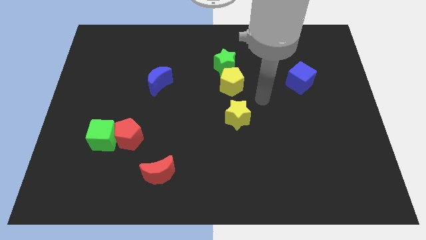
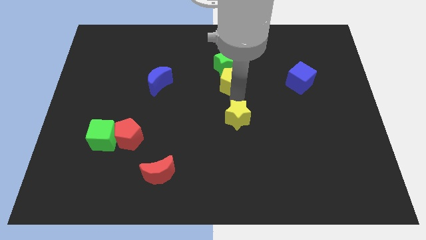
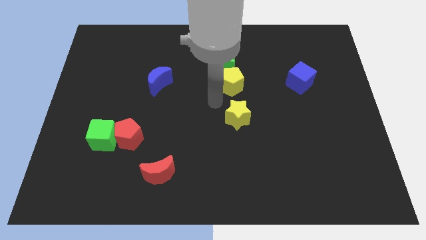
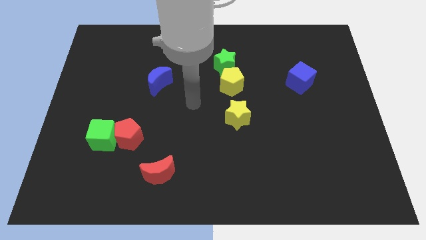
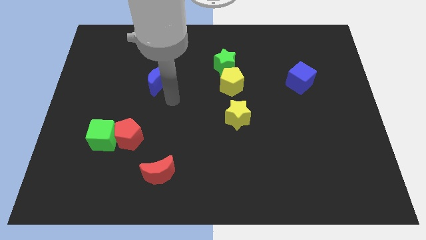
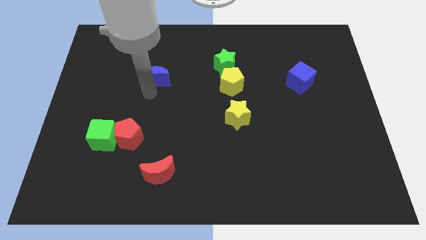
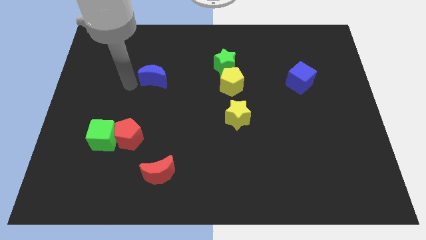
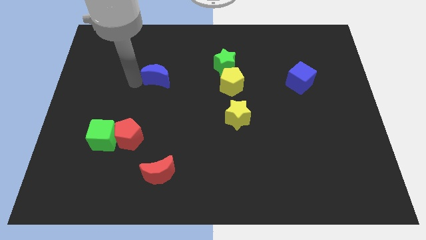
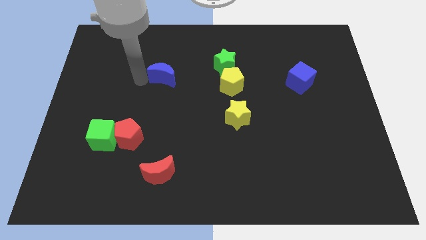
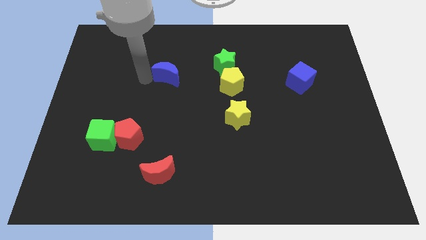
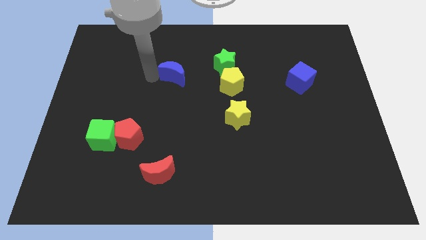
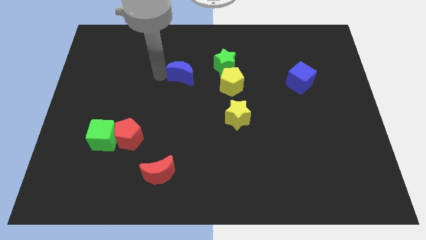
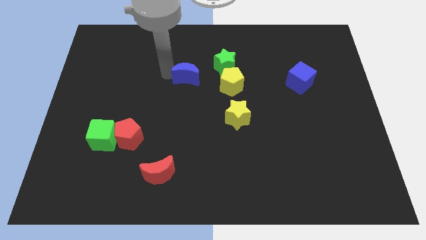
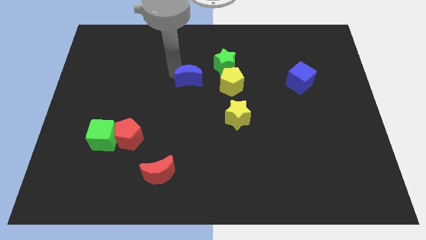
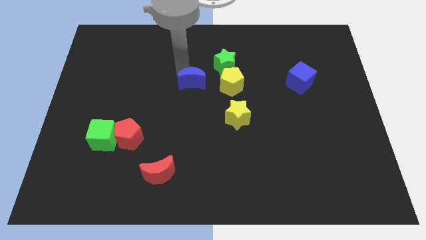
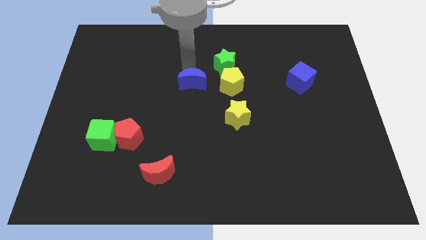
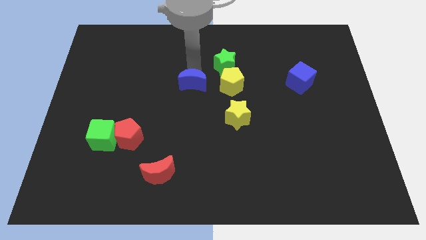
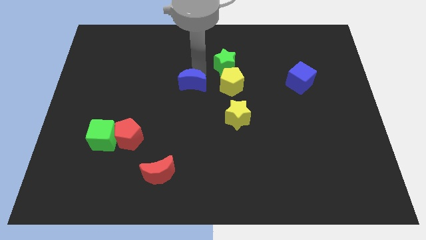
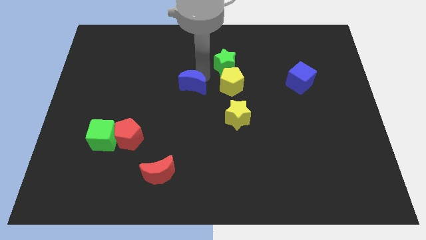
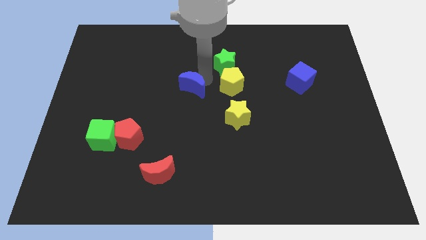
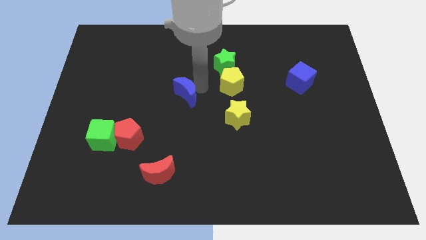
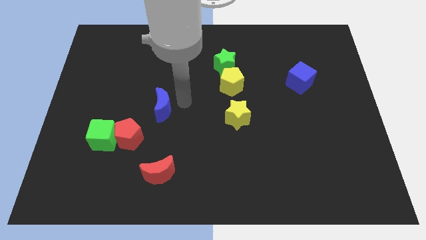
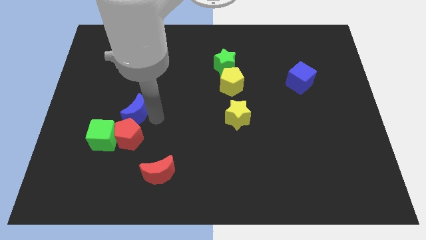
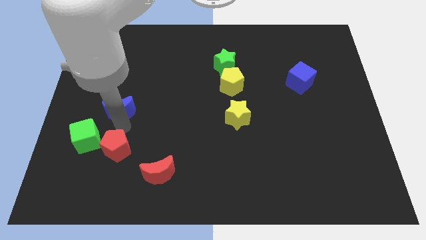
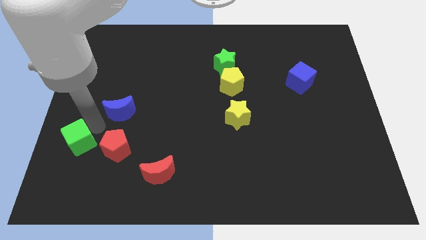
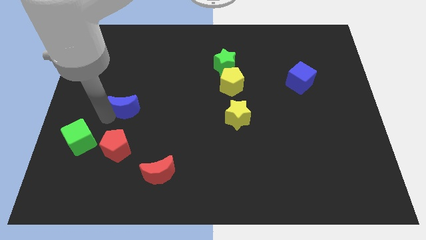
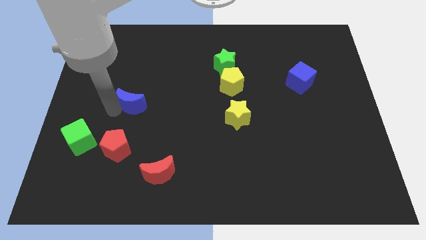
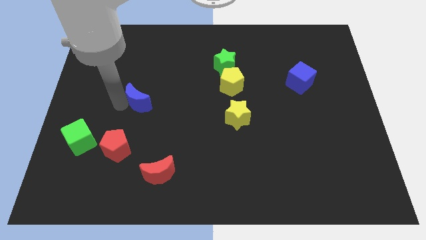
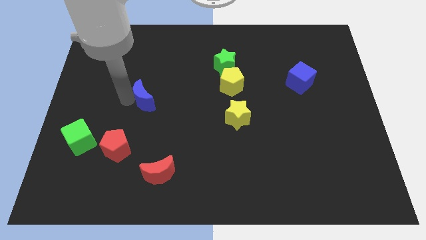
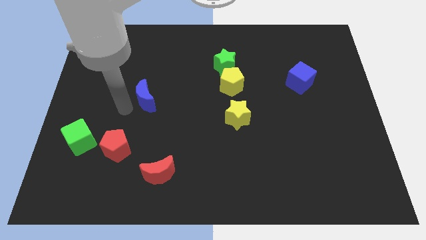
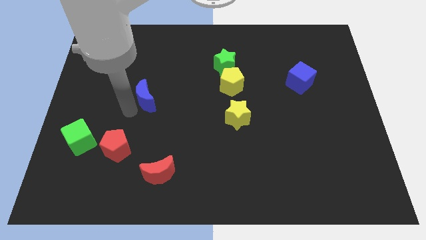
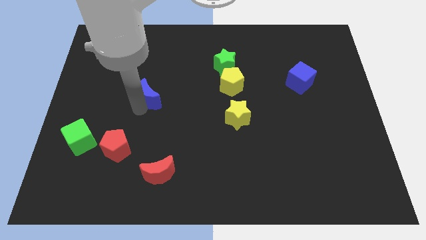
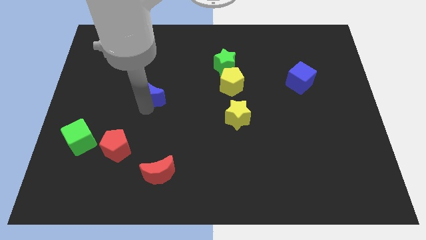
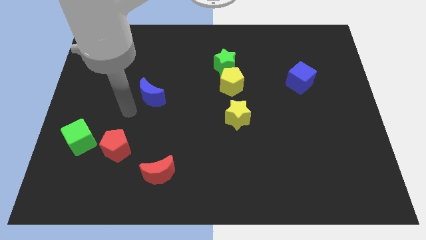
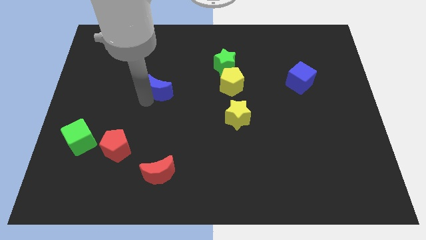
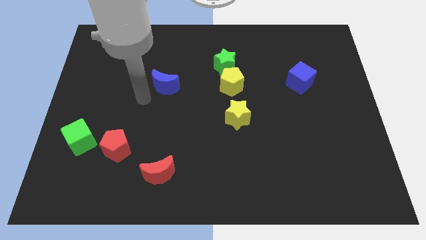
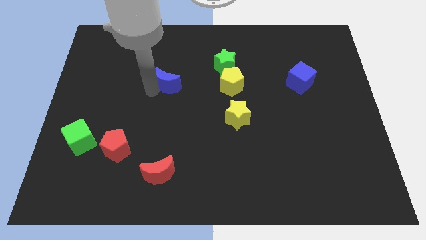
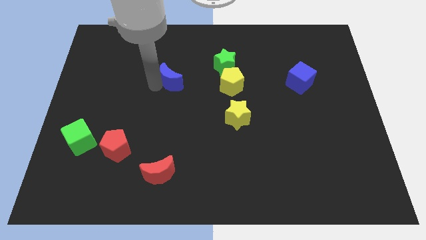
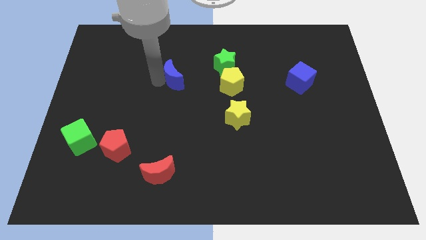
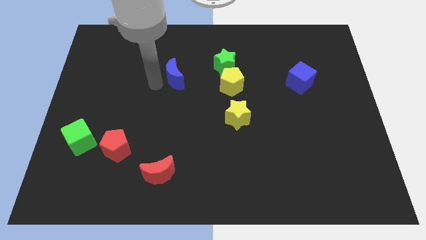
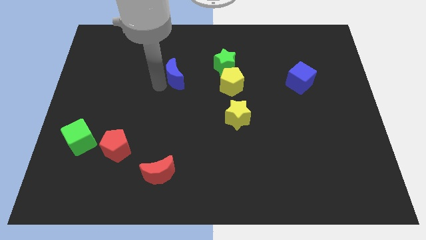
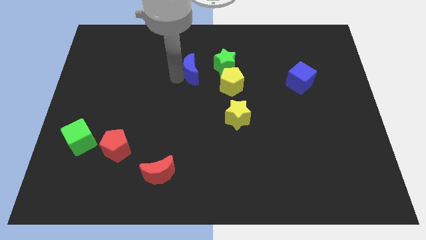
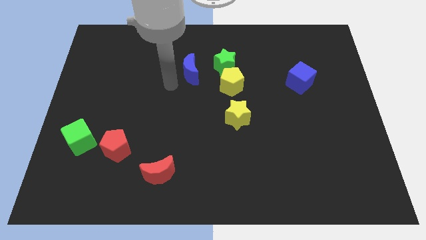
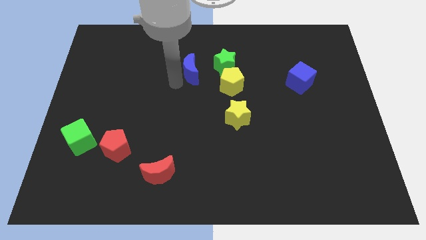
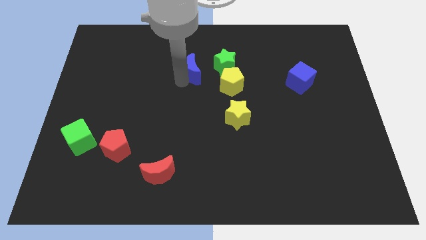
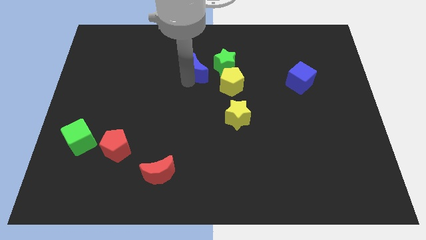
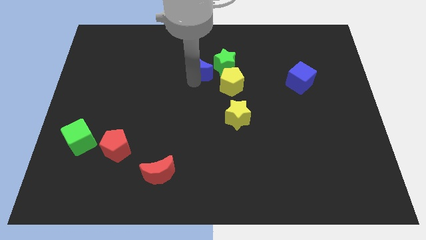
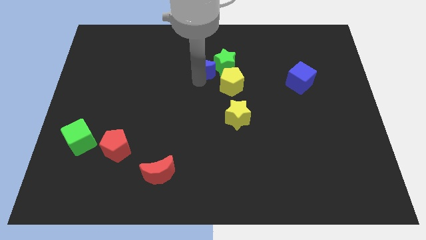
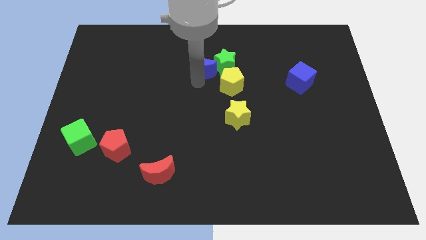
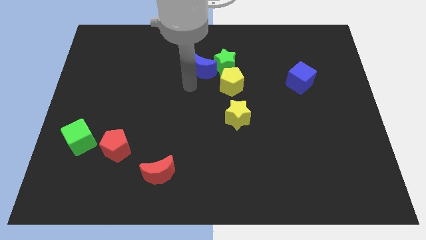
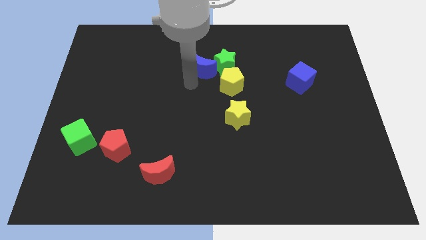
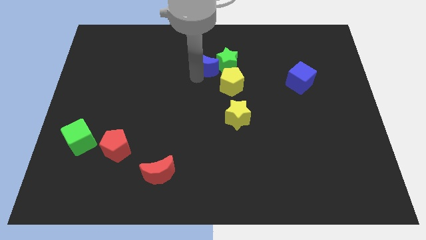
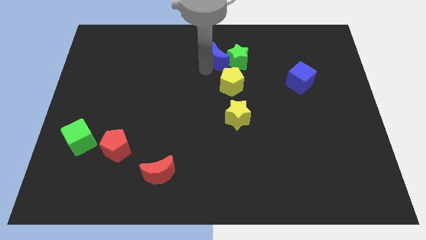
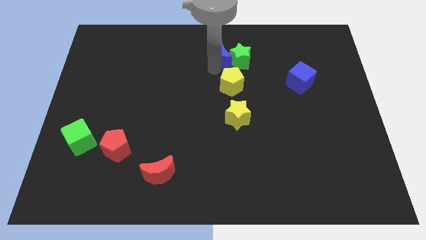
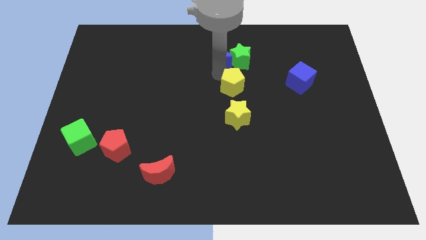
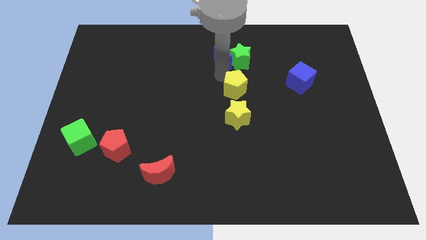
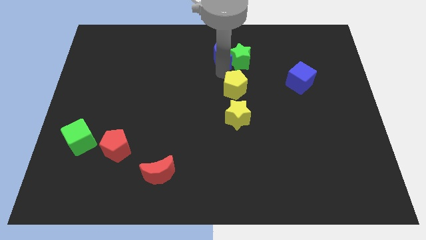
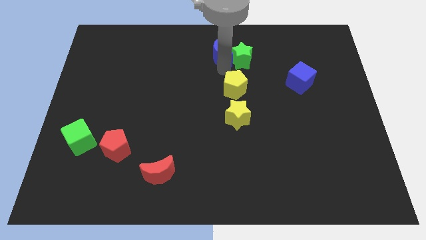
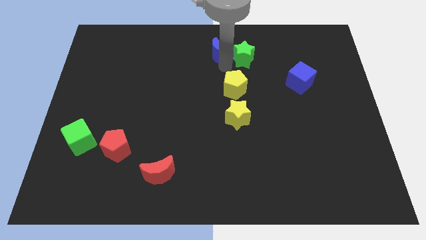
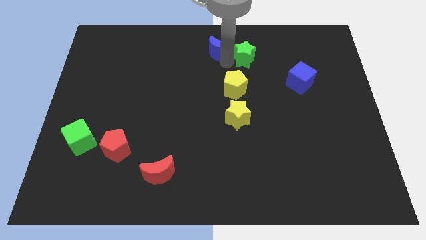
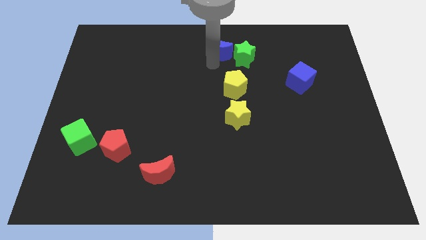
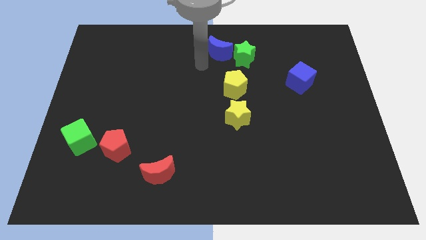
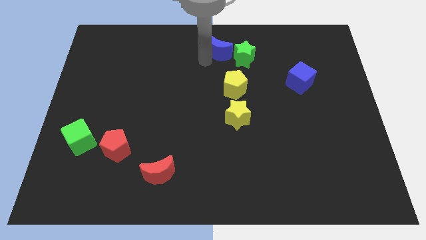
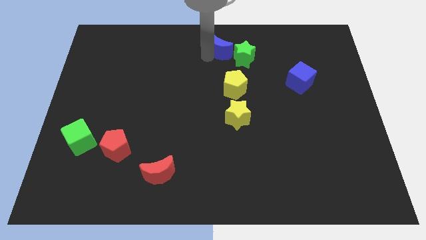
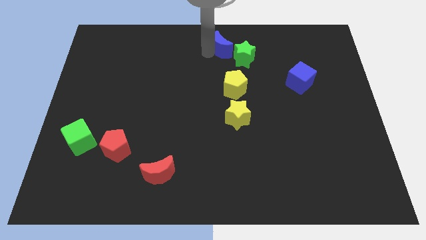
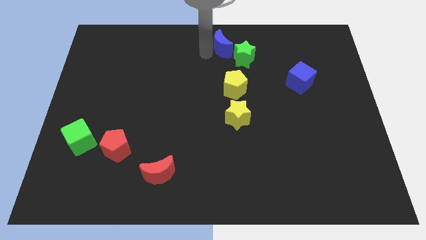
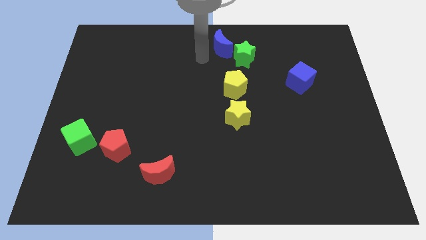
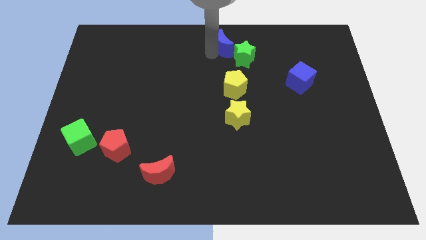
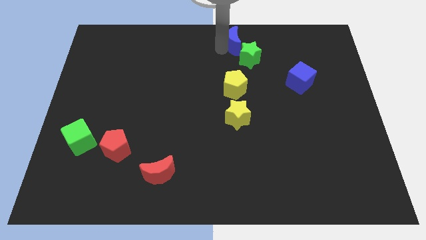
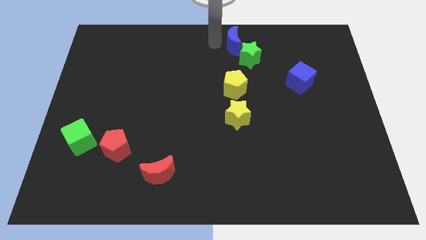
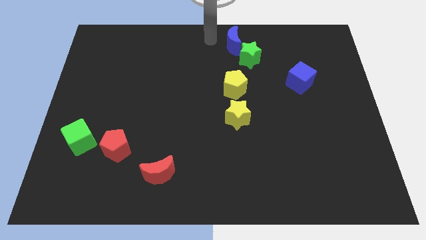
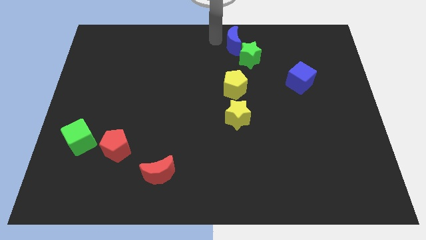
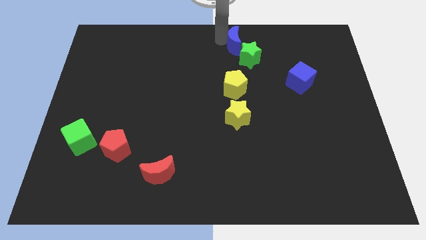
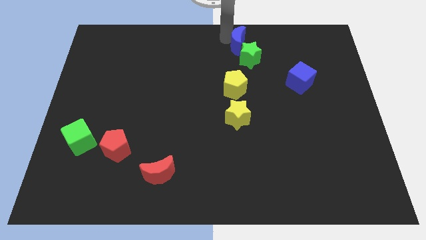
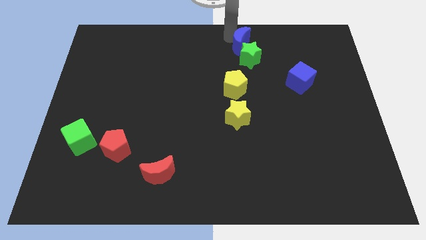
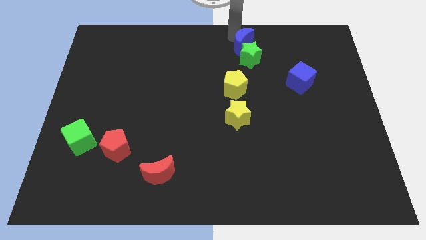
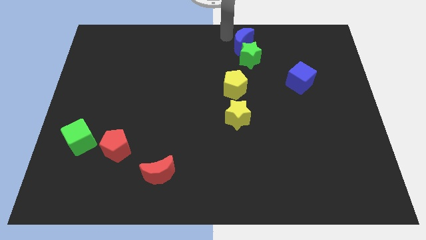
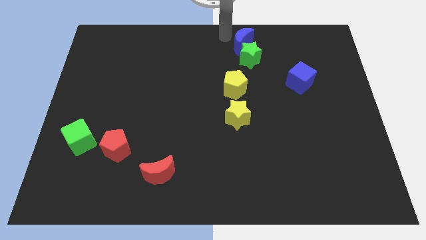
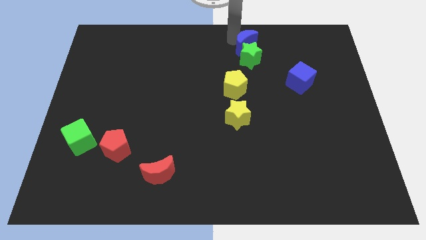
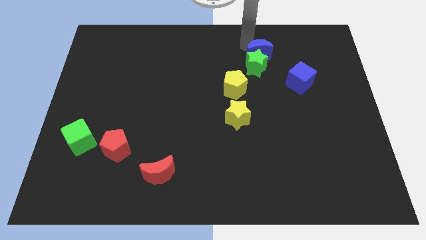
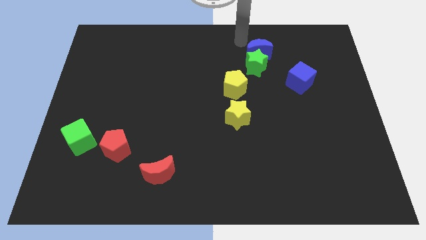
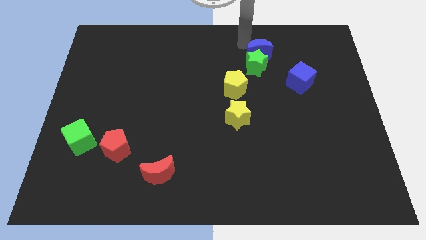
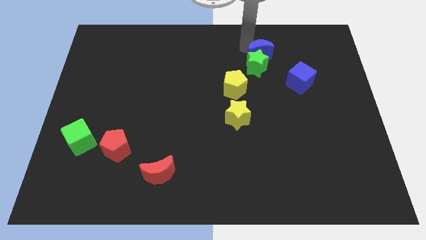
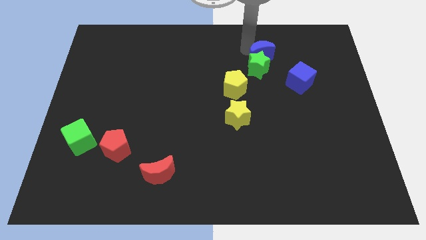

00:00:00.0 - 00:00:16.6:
move the blue moon to the top left of the blue cube
